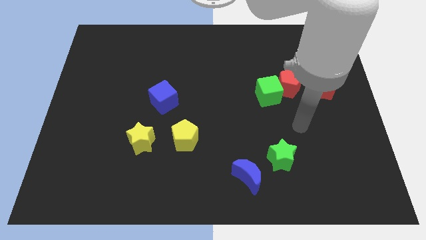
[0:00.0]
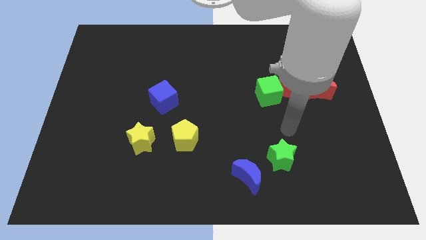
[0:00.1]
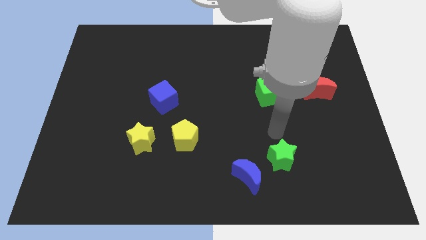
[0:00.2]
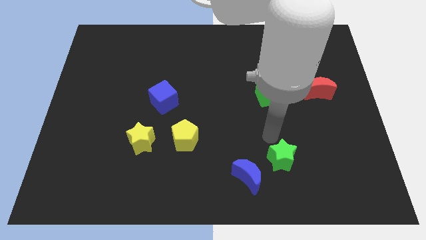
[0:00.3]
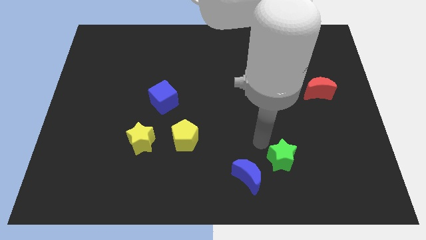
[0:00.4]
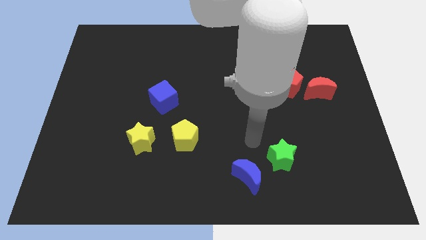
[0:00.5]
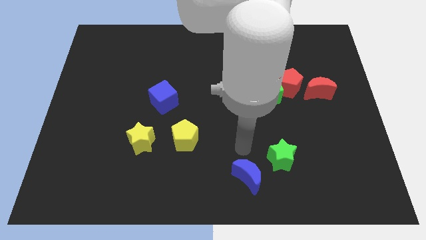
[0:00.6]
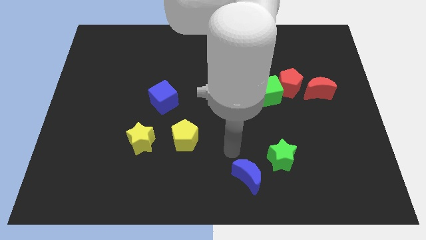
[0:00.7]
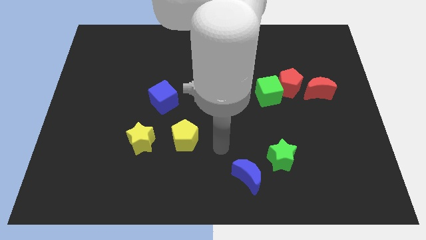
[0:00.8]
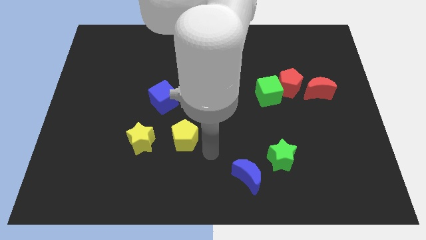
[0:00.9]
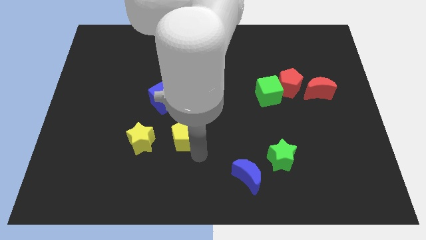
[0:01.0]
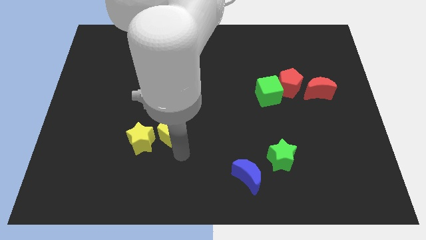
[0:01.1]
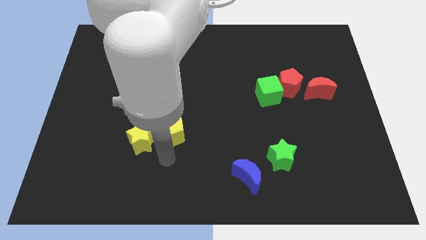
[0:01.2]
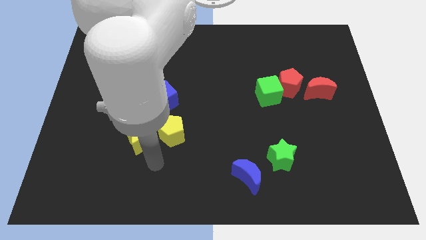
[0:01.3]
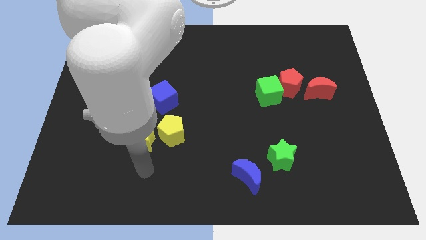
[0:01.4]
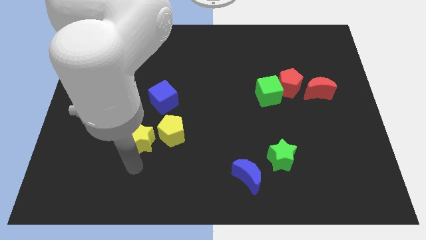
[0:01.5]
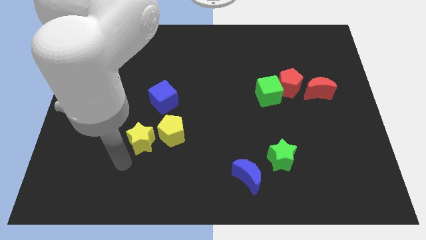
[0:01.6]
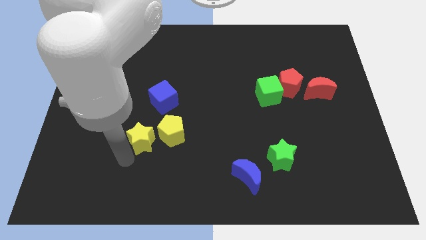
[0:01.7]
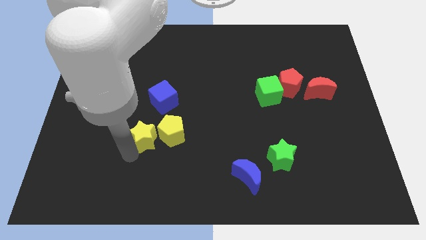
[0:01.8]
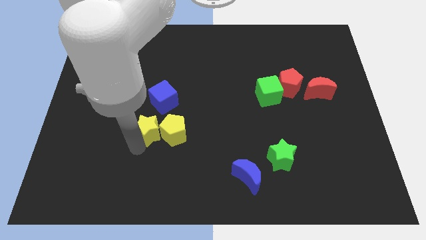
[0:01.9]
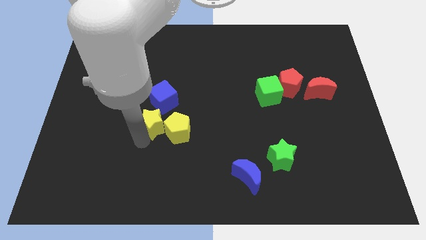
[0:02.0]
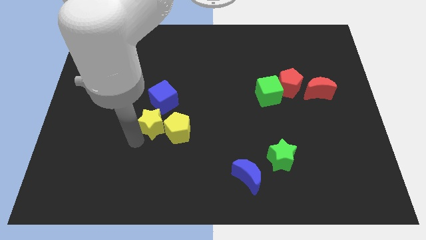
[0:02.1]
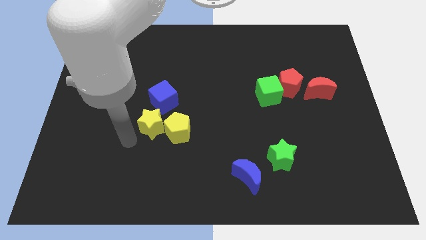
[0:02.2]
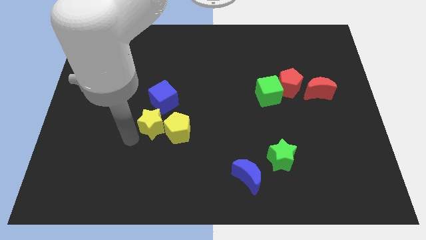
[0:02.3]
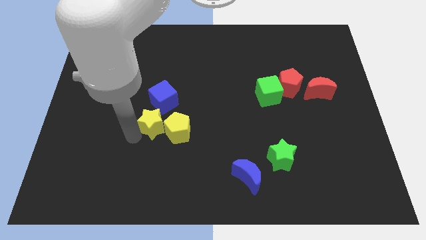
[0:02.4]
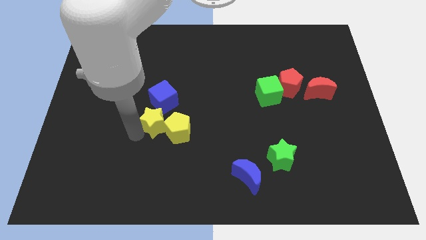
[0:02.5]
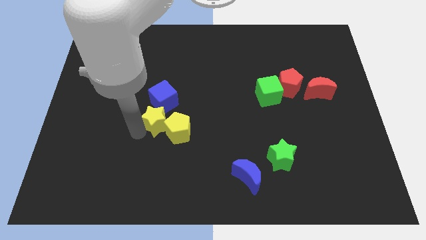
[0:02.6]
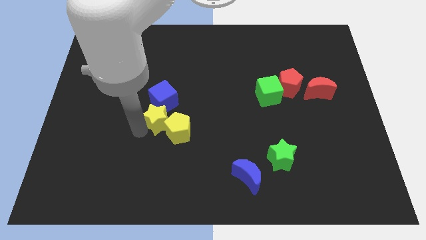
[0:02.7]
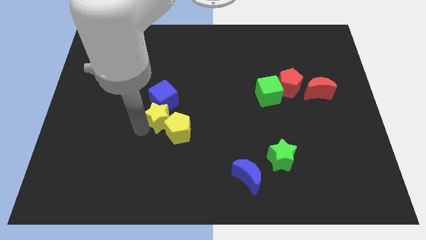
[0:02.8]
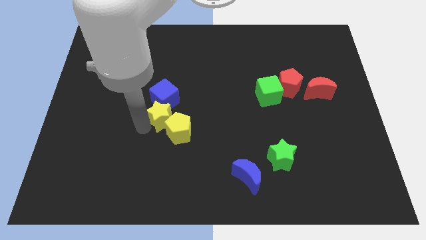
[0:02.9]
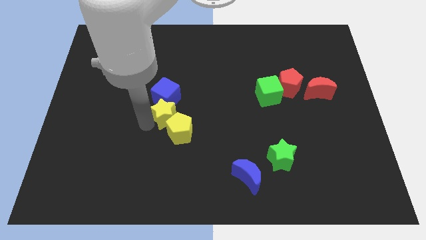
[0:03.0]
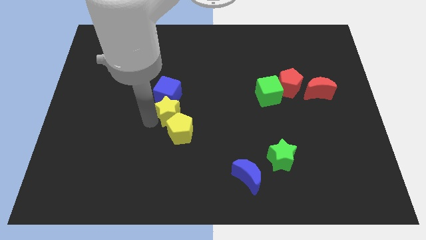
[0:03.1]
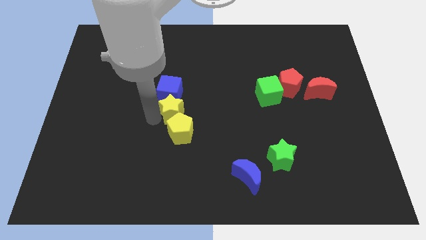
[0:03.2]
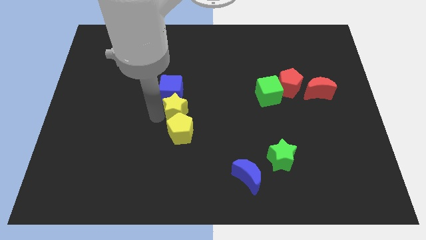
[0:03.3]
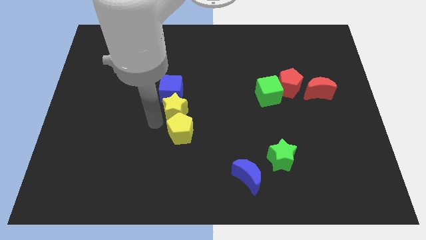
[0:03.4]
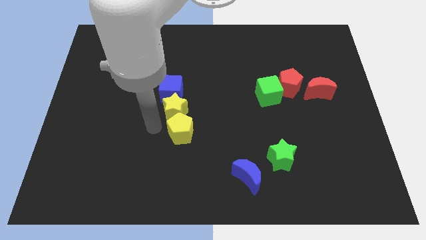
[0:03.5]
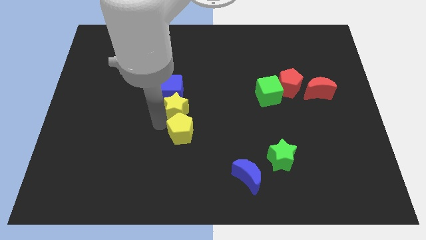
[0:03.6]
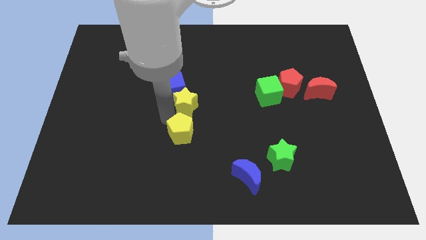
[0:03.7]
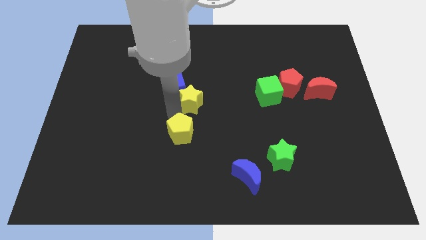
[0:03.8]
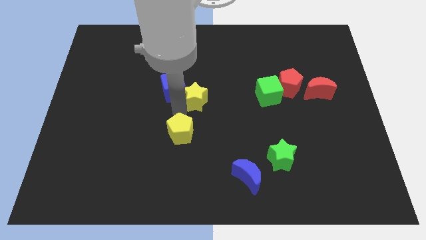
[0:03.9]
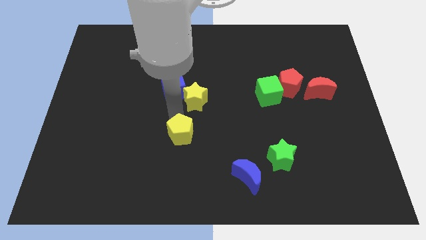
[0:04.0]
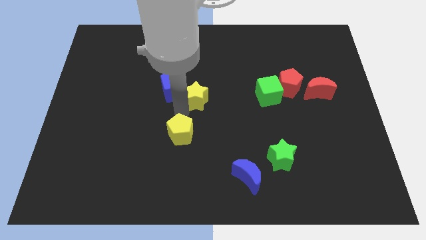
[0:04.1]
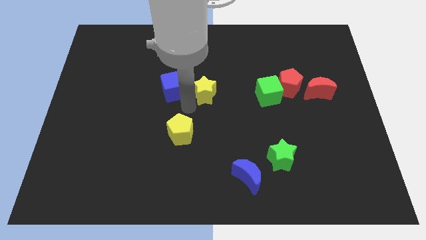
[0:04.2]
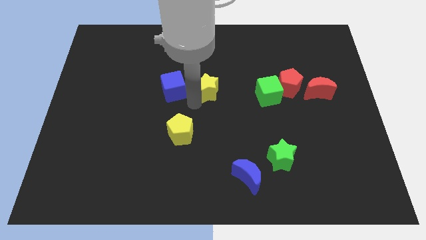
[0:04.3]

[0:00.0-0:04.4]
slide the yellow star upwards and right diagonally

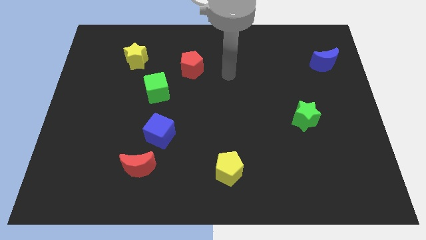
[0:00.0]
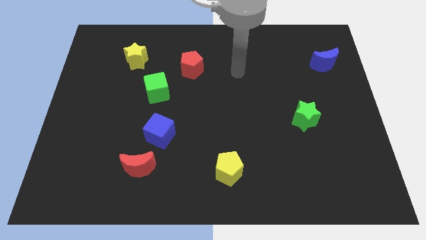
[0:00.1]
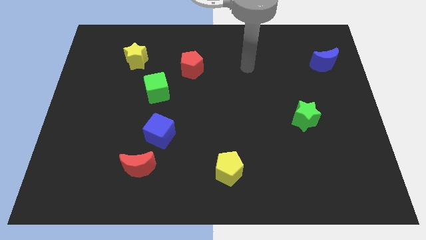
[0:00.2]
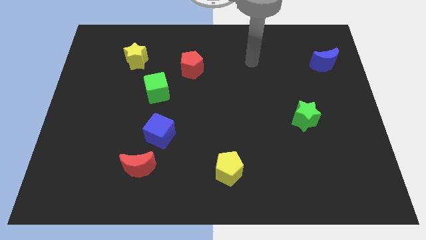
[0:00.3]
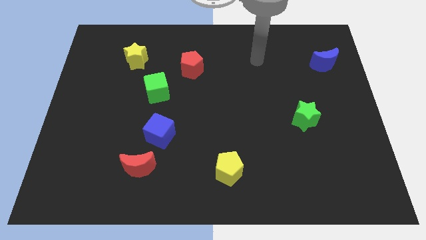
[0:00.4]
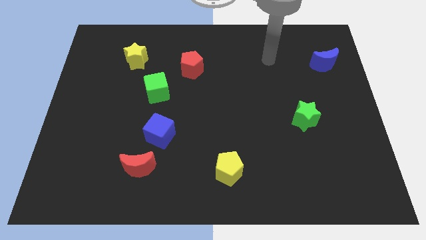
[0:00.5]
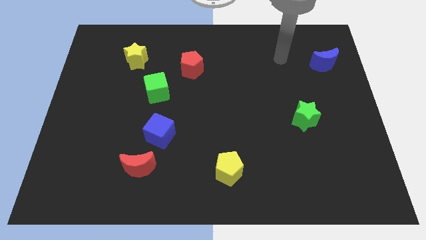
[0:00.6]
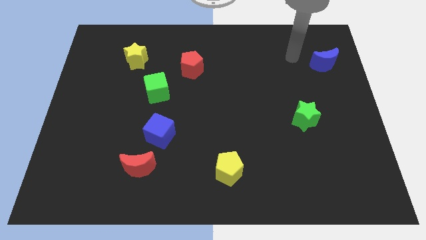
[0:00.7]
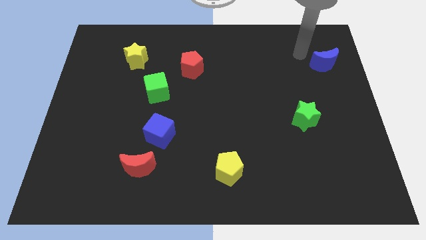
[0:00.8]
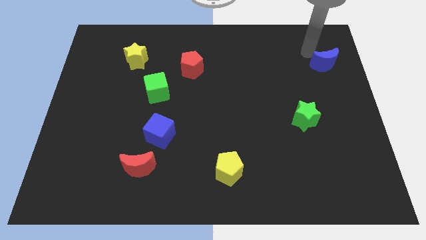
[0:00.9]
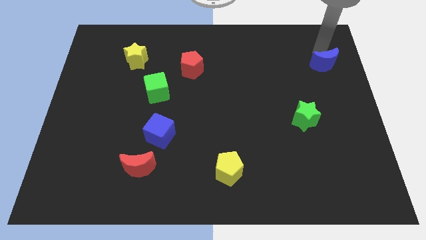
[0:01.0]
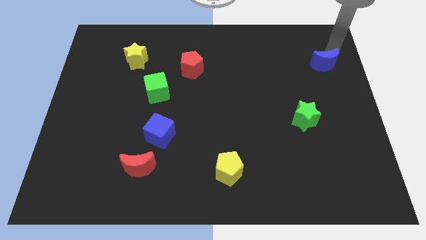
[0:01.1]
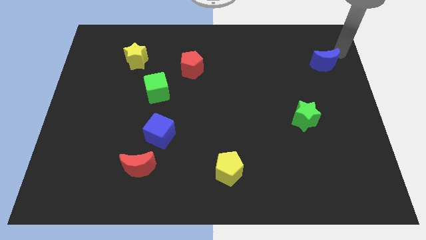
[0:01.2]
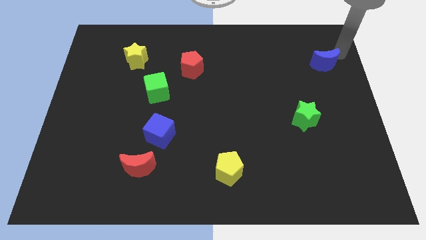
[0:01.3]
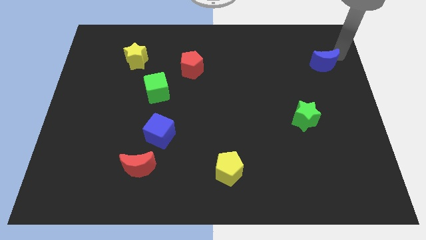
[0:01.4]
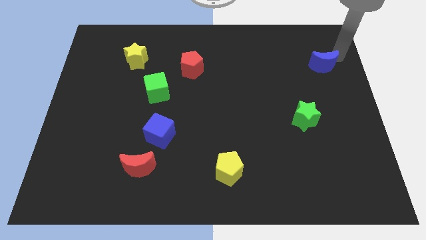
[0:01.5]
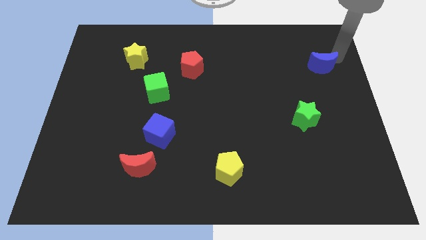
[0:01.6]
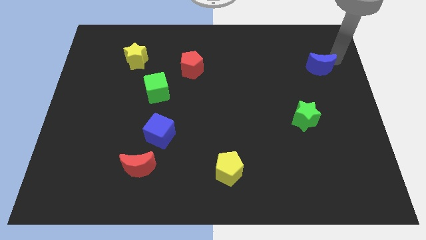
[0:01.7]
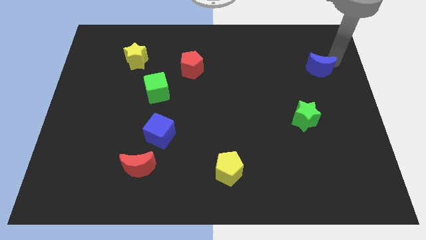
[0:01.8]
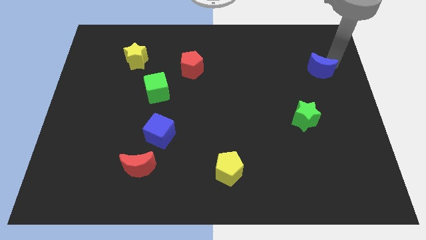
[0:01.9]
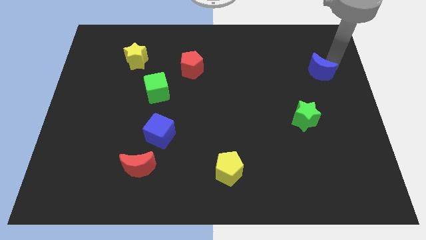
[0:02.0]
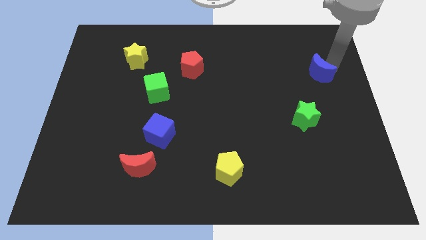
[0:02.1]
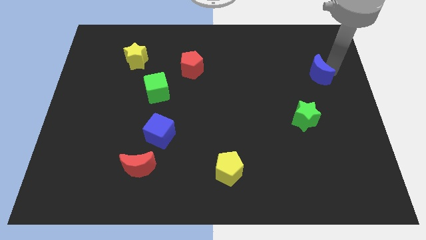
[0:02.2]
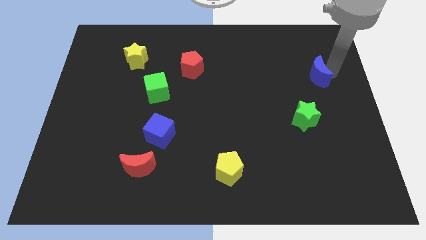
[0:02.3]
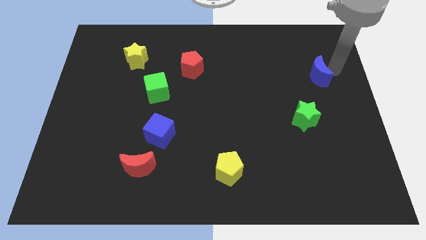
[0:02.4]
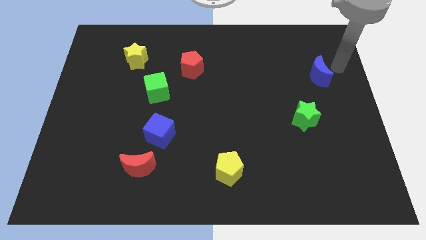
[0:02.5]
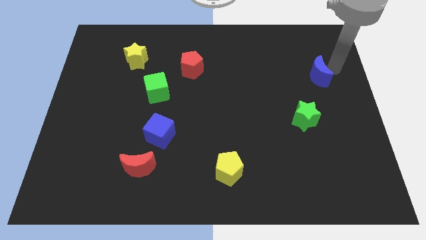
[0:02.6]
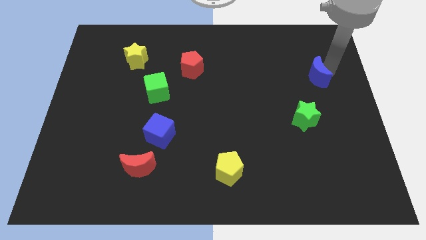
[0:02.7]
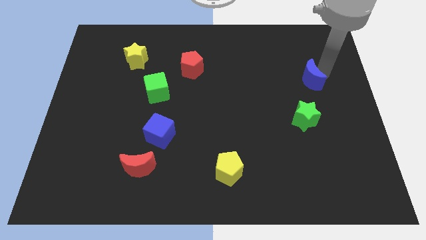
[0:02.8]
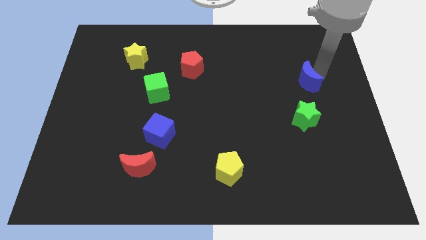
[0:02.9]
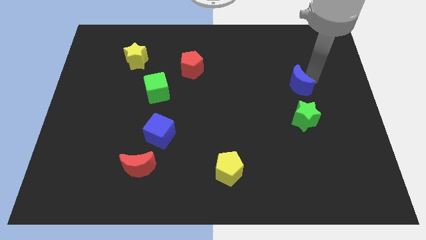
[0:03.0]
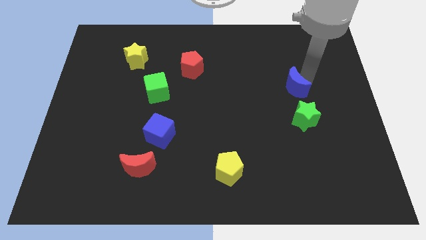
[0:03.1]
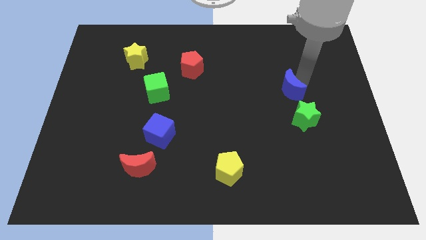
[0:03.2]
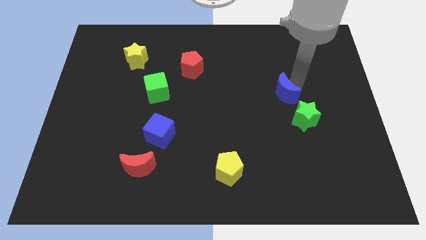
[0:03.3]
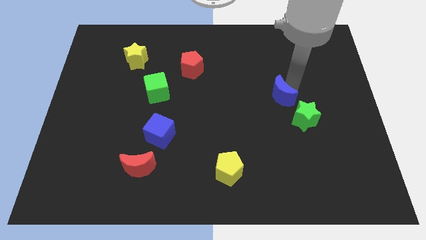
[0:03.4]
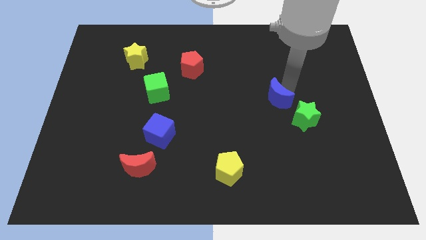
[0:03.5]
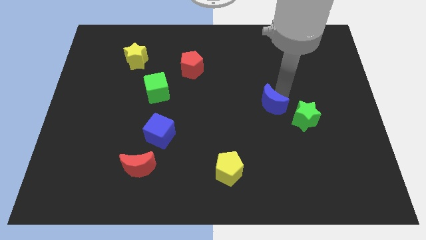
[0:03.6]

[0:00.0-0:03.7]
push the blue moon diagonally downwards and left
